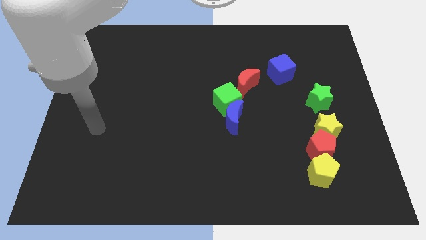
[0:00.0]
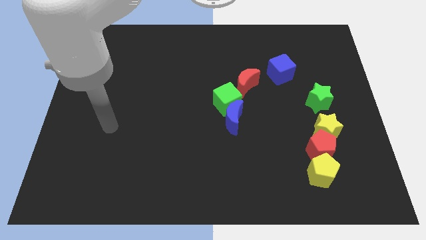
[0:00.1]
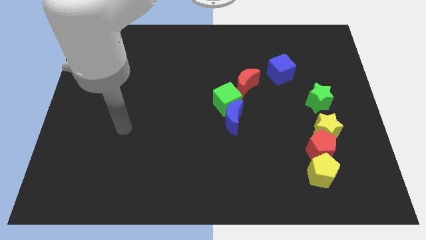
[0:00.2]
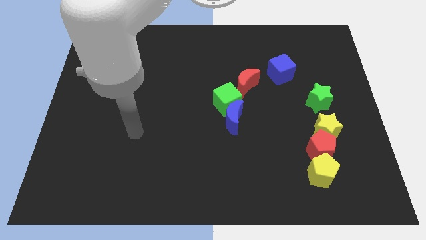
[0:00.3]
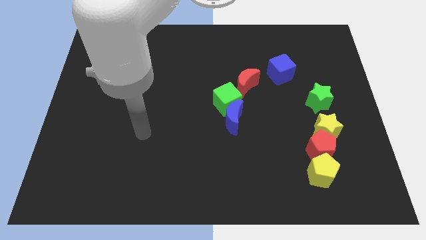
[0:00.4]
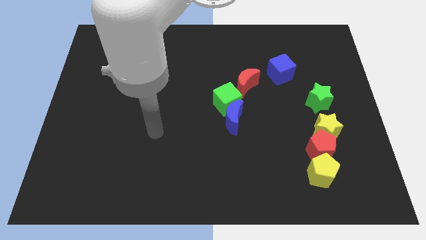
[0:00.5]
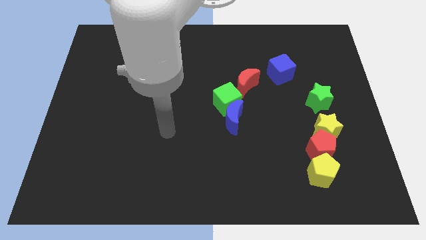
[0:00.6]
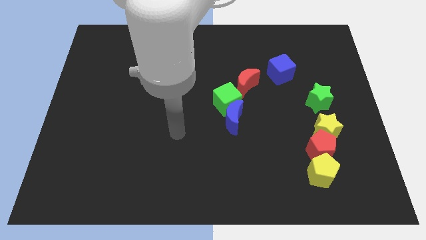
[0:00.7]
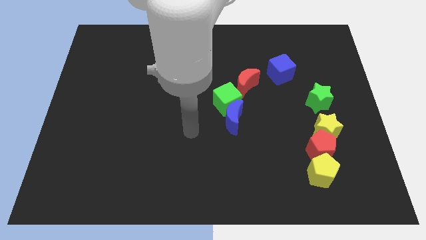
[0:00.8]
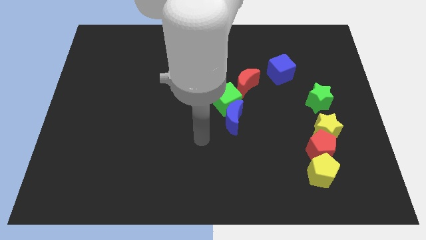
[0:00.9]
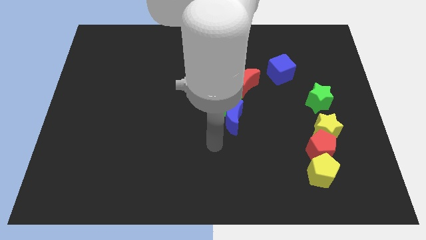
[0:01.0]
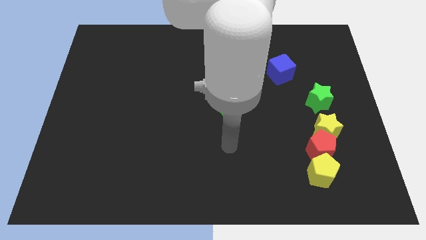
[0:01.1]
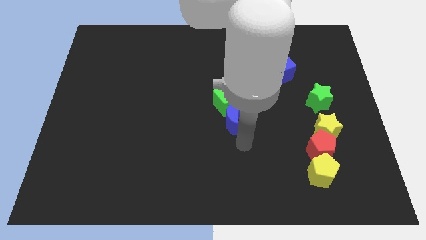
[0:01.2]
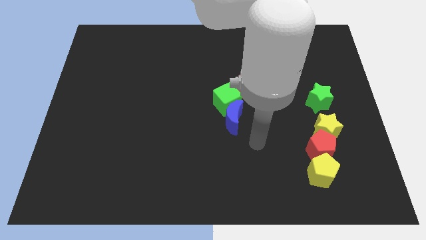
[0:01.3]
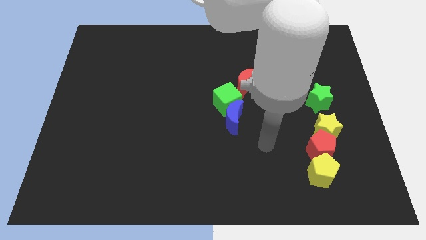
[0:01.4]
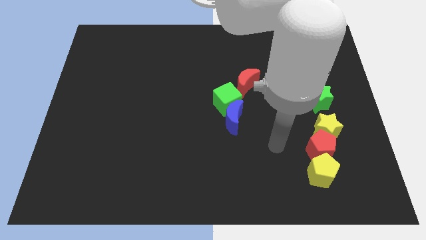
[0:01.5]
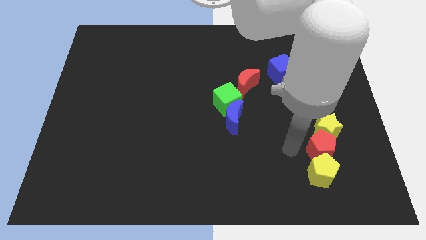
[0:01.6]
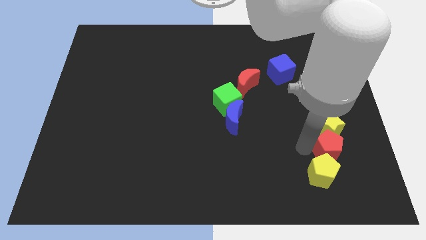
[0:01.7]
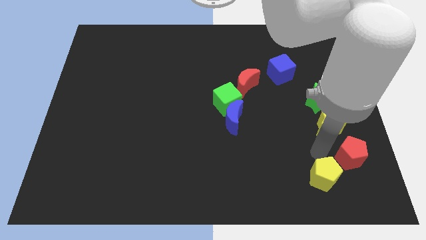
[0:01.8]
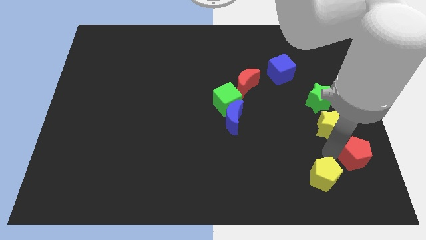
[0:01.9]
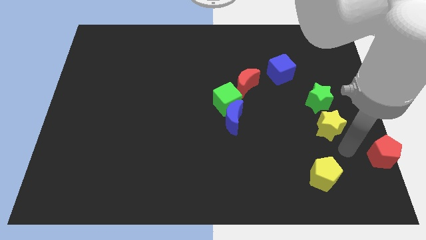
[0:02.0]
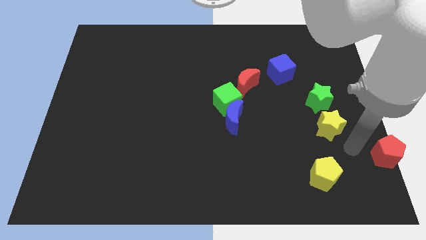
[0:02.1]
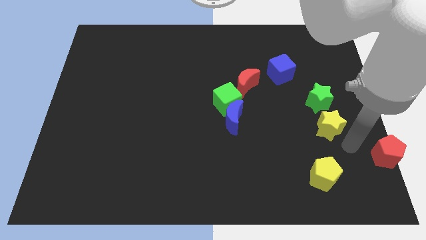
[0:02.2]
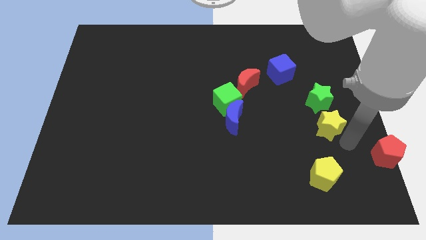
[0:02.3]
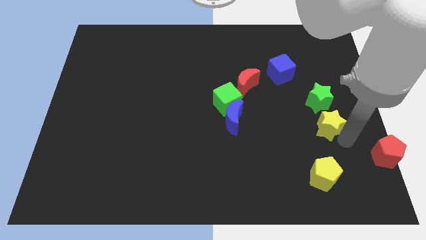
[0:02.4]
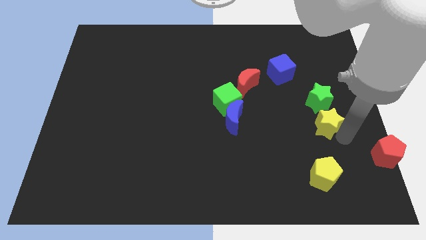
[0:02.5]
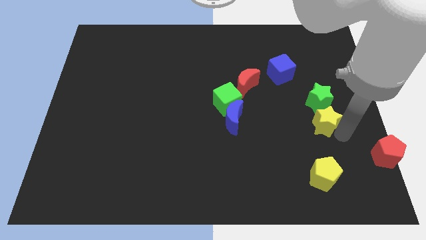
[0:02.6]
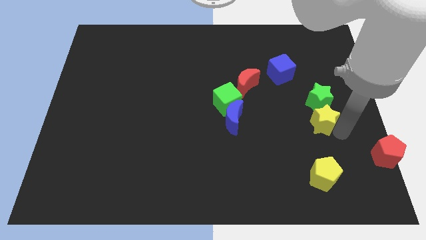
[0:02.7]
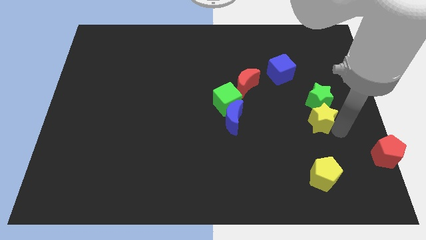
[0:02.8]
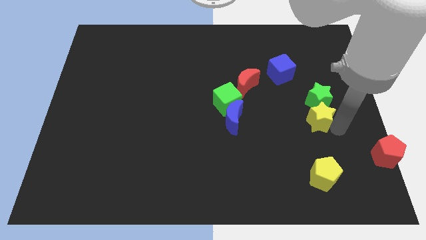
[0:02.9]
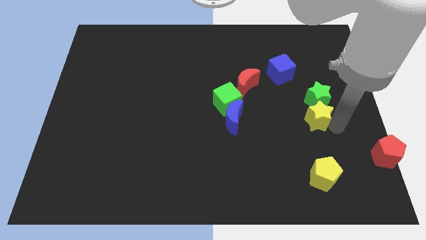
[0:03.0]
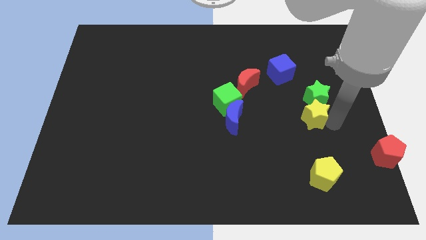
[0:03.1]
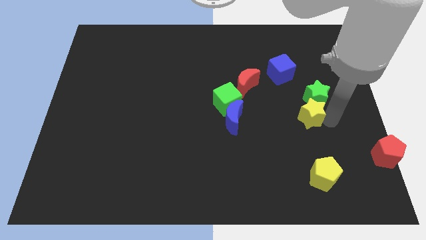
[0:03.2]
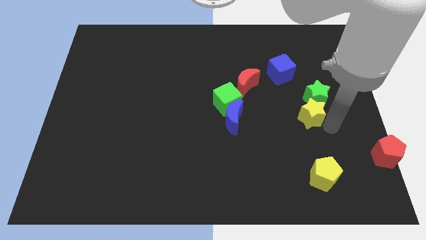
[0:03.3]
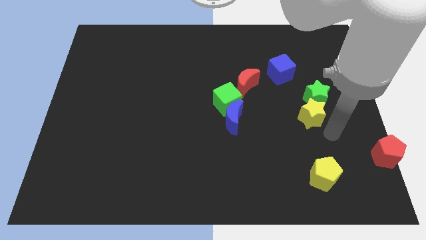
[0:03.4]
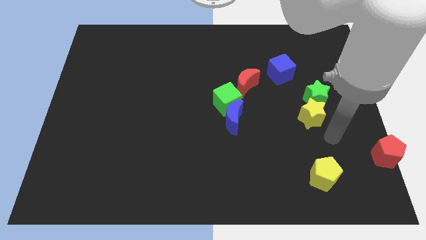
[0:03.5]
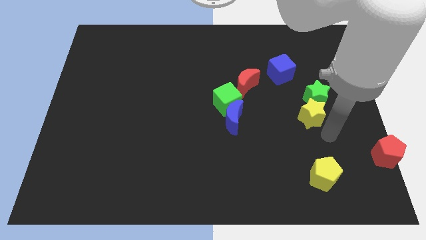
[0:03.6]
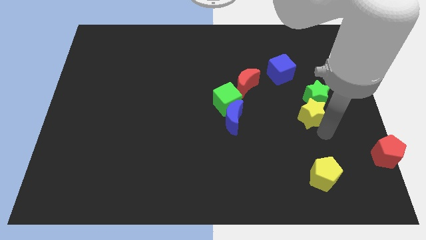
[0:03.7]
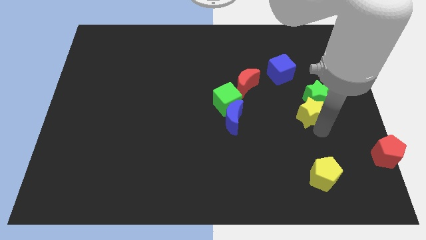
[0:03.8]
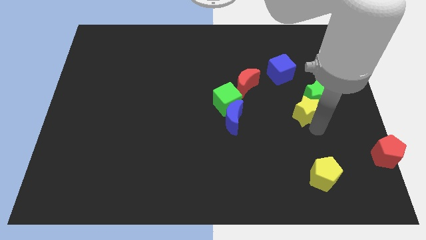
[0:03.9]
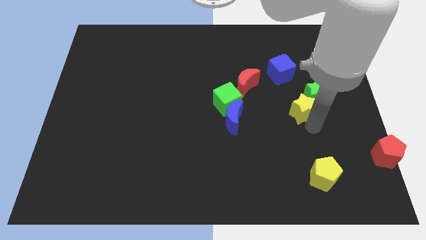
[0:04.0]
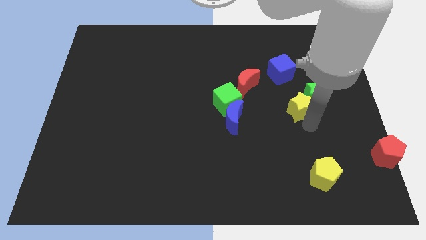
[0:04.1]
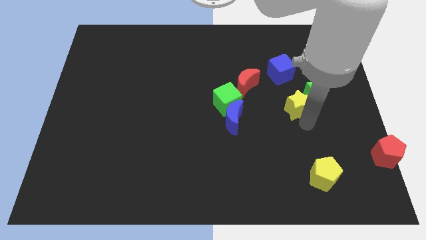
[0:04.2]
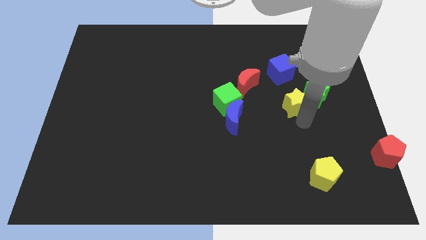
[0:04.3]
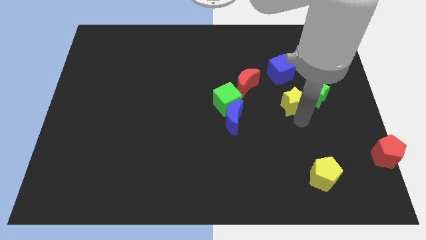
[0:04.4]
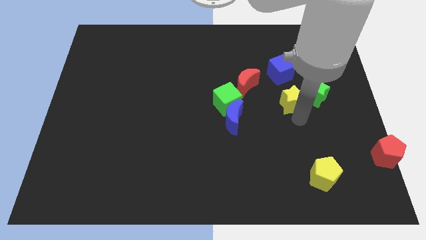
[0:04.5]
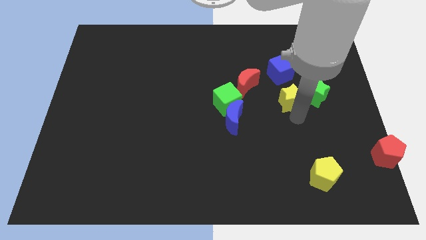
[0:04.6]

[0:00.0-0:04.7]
push the yellow star a bit up

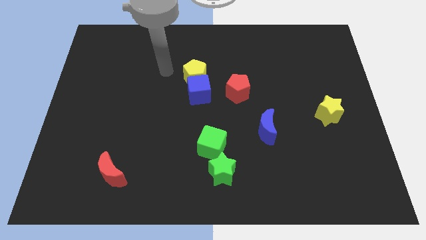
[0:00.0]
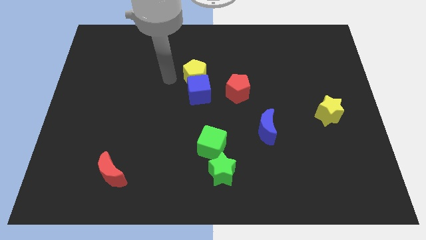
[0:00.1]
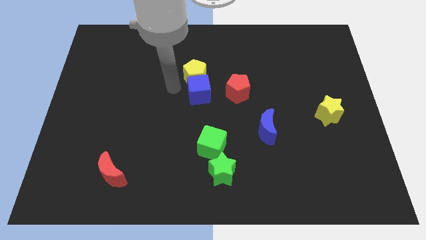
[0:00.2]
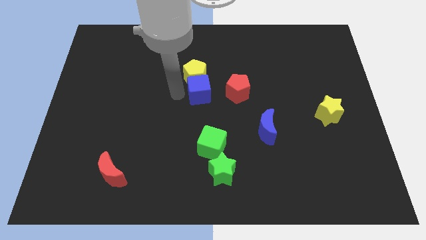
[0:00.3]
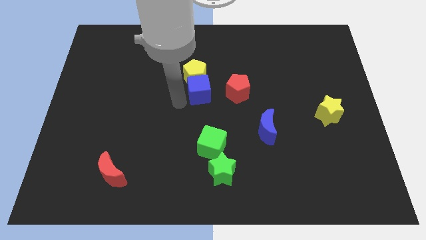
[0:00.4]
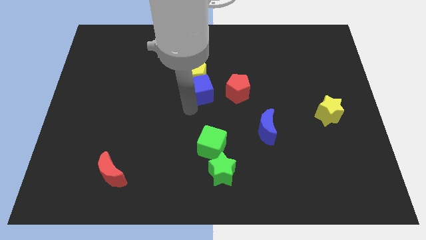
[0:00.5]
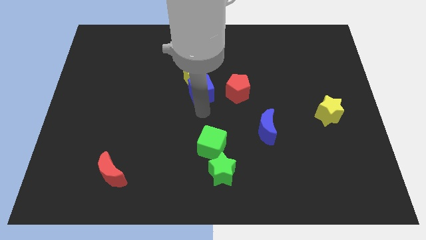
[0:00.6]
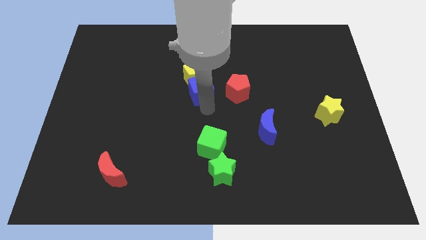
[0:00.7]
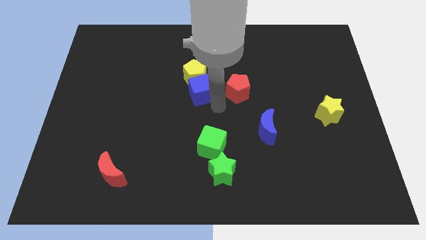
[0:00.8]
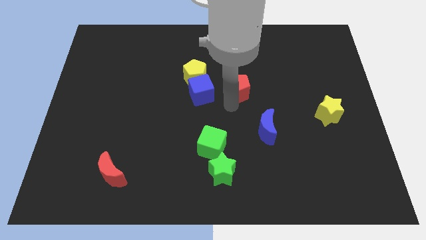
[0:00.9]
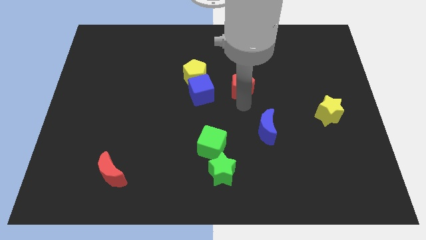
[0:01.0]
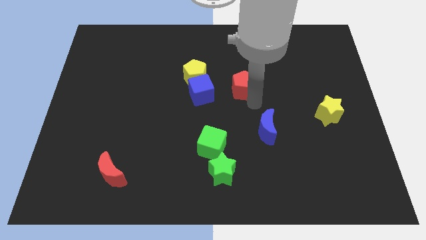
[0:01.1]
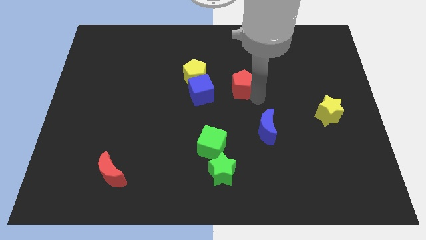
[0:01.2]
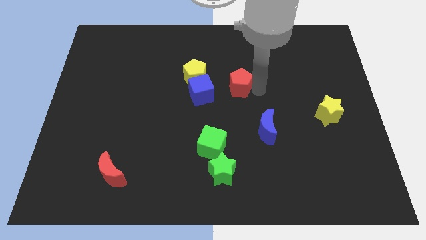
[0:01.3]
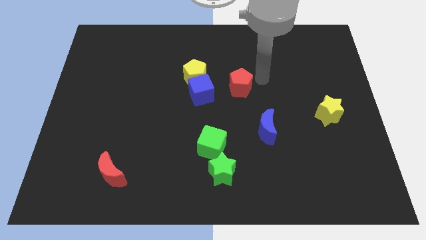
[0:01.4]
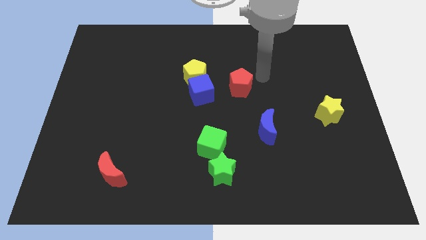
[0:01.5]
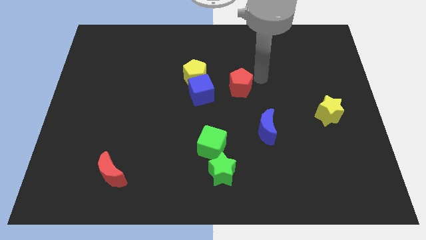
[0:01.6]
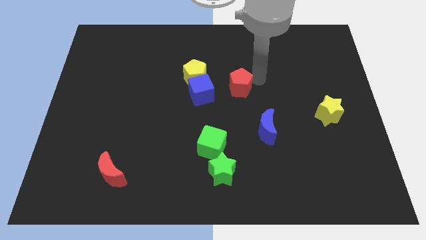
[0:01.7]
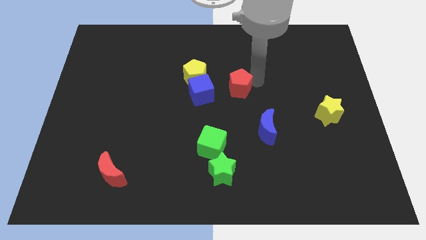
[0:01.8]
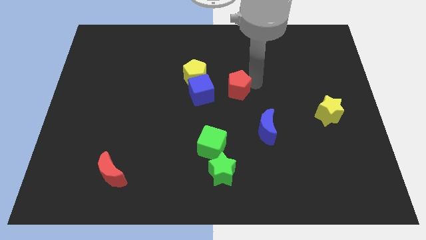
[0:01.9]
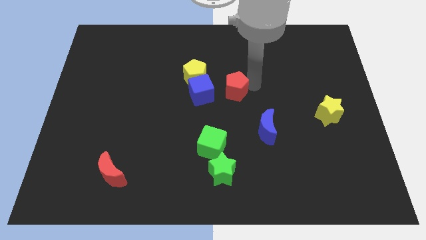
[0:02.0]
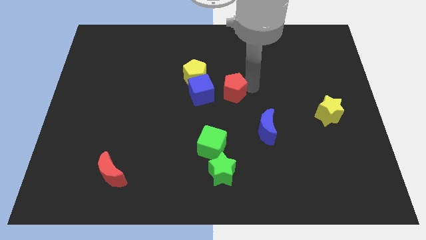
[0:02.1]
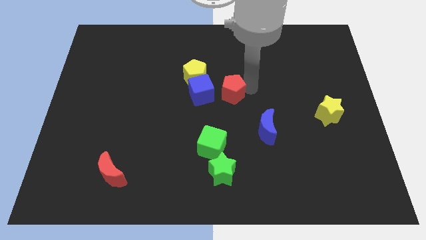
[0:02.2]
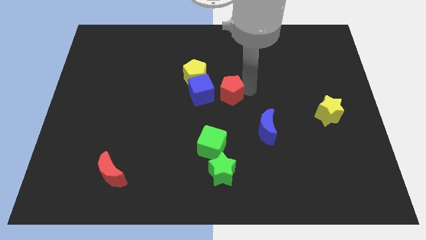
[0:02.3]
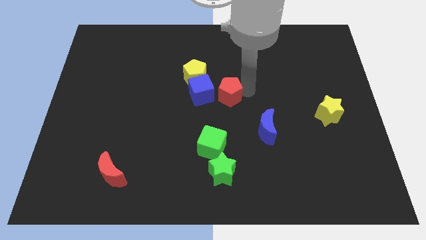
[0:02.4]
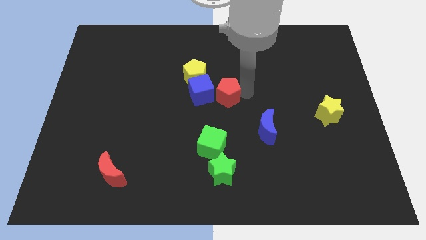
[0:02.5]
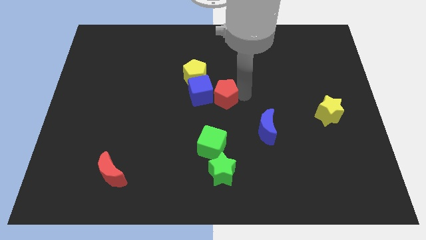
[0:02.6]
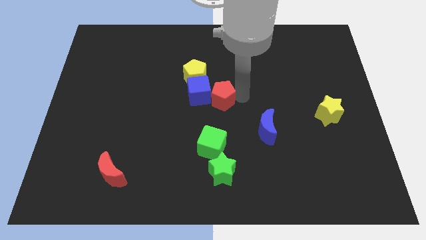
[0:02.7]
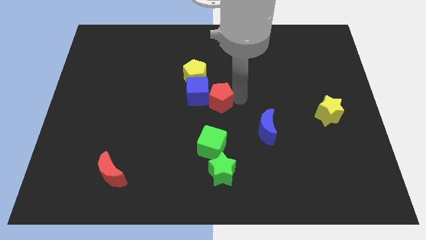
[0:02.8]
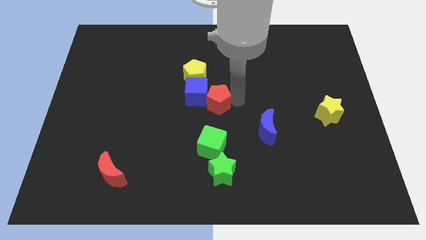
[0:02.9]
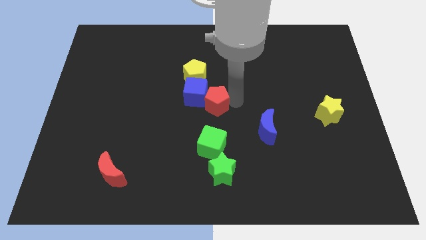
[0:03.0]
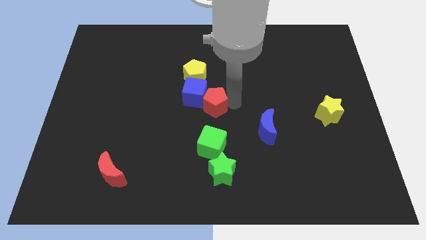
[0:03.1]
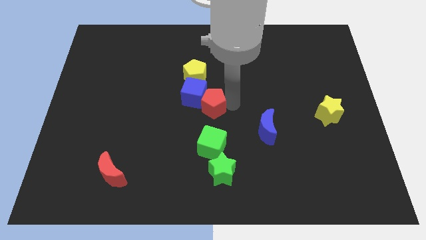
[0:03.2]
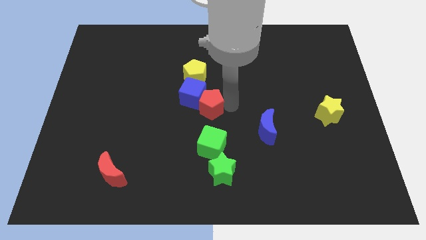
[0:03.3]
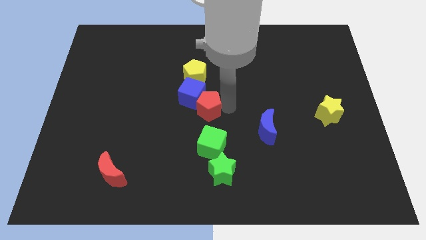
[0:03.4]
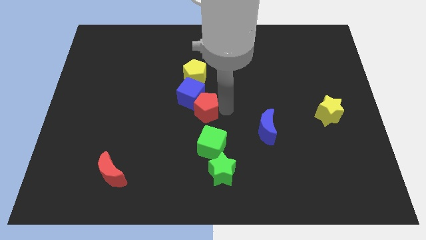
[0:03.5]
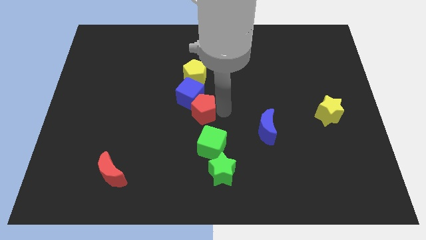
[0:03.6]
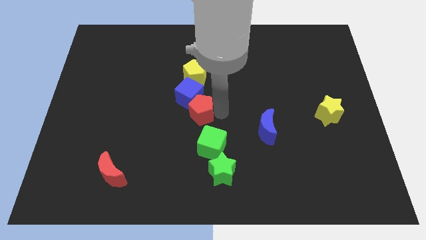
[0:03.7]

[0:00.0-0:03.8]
slightly push the red pentagon to the left
